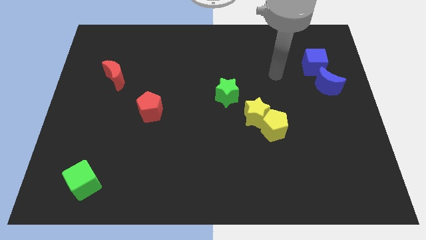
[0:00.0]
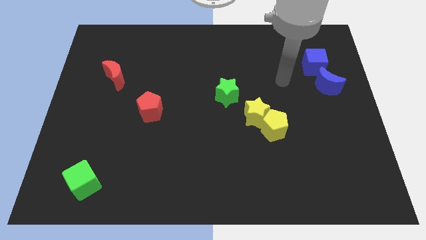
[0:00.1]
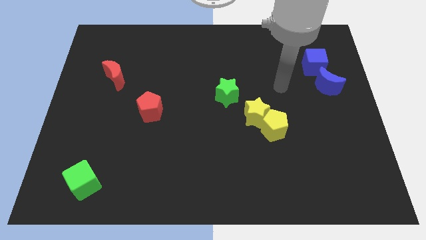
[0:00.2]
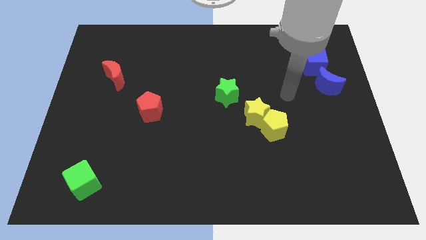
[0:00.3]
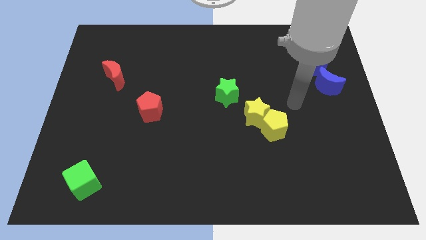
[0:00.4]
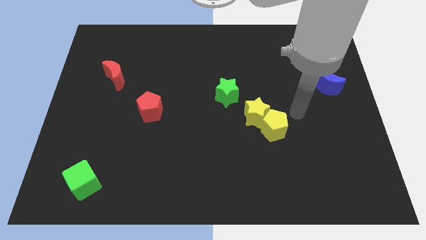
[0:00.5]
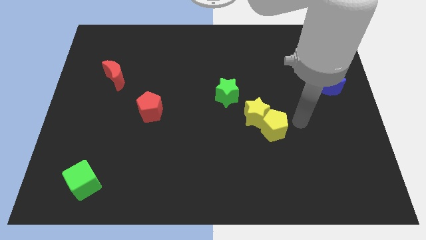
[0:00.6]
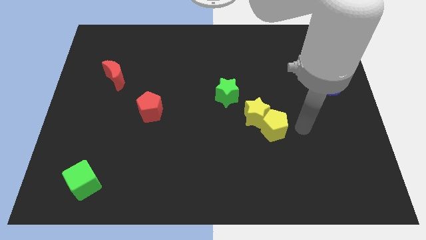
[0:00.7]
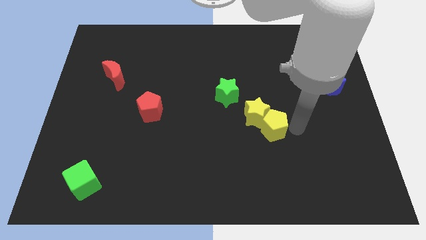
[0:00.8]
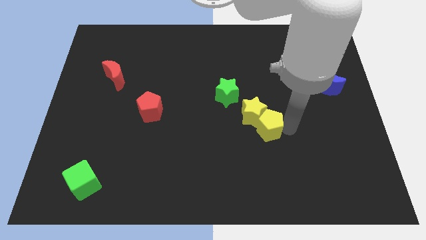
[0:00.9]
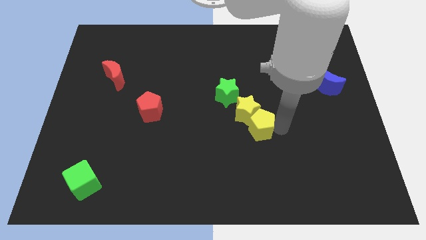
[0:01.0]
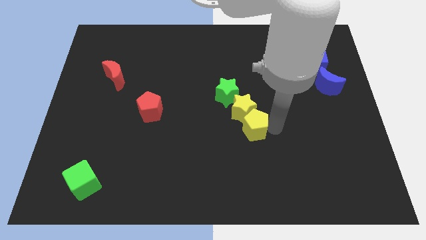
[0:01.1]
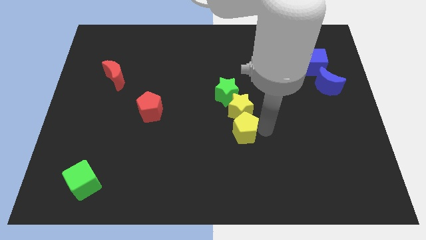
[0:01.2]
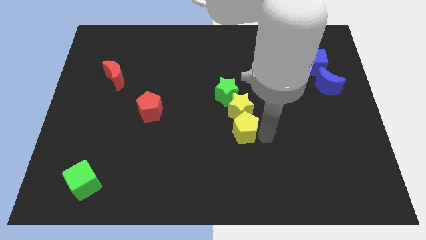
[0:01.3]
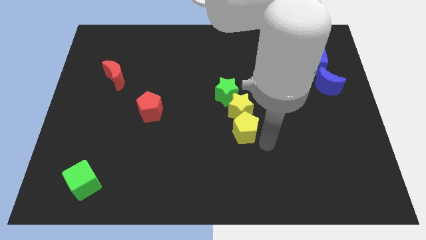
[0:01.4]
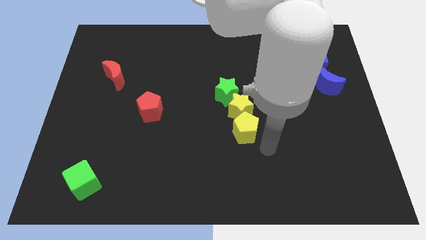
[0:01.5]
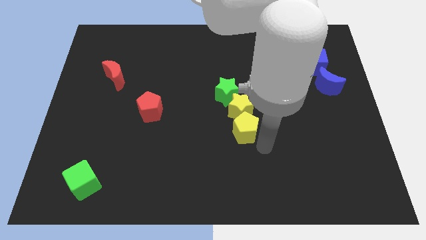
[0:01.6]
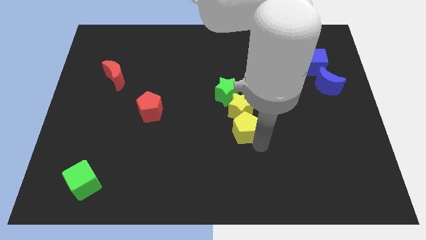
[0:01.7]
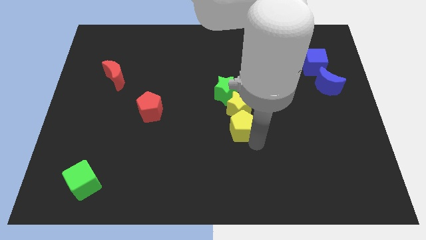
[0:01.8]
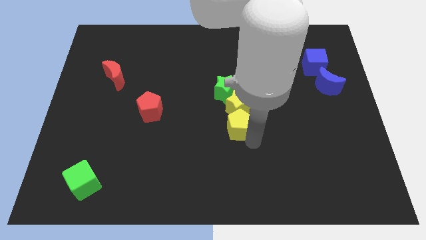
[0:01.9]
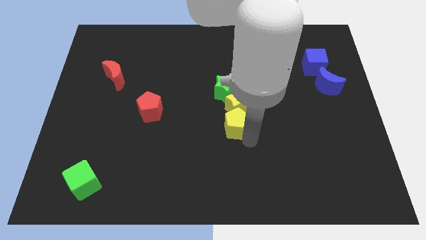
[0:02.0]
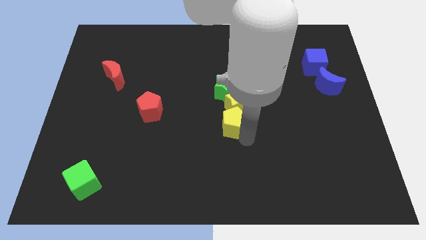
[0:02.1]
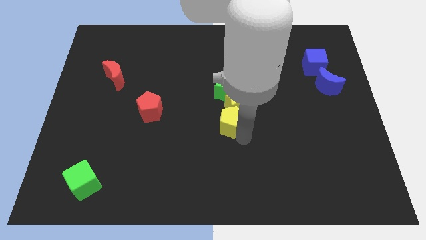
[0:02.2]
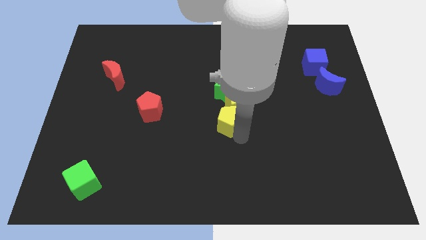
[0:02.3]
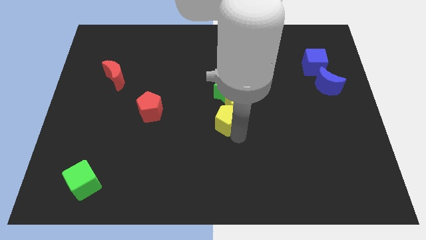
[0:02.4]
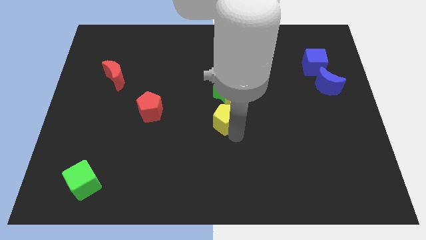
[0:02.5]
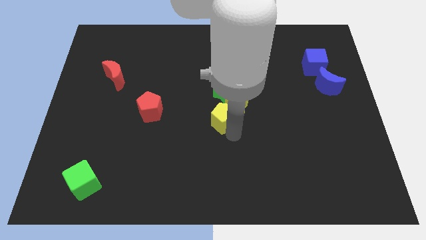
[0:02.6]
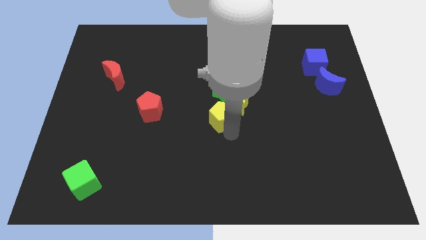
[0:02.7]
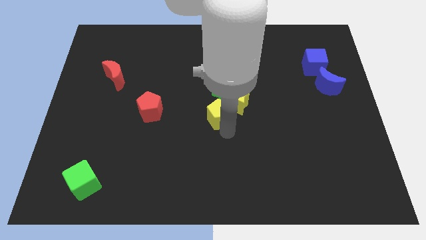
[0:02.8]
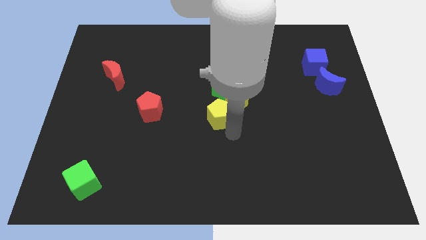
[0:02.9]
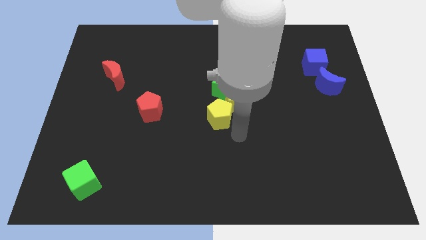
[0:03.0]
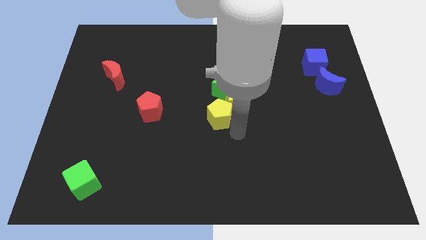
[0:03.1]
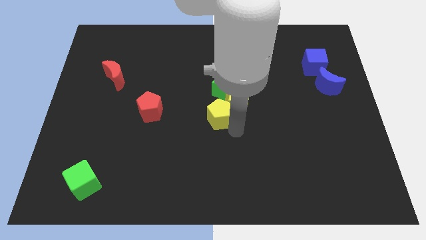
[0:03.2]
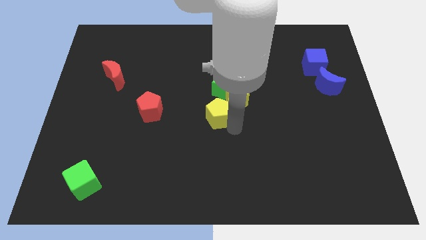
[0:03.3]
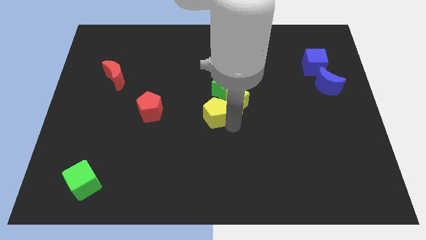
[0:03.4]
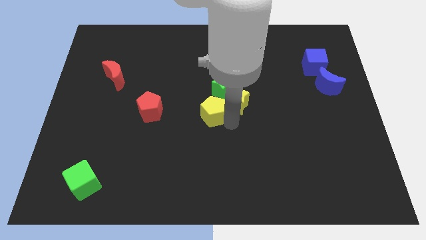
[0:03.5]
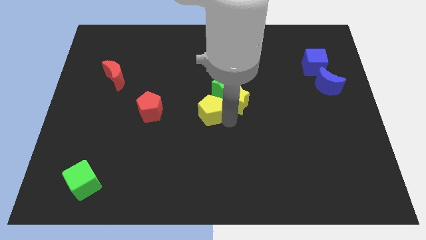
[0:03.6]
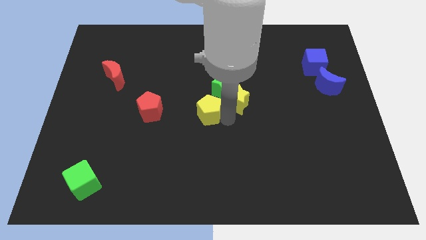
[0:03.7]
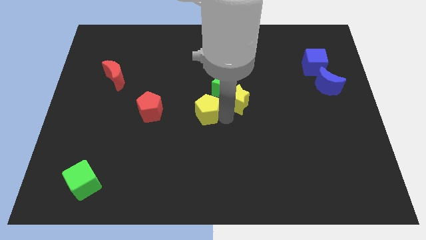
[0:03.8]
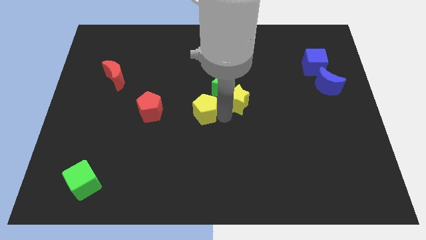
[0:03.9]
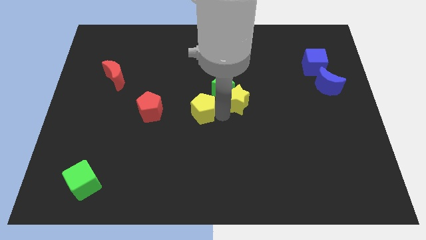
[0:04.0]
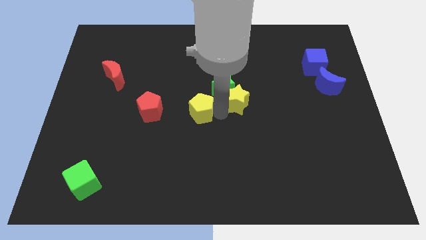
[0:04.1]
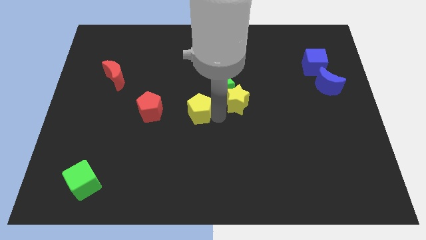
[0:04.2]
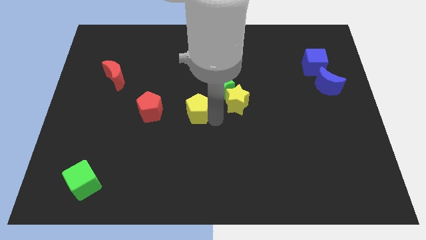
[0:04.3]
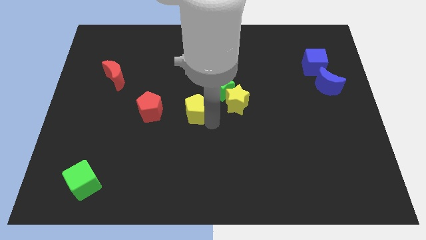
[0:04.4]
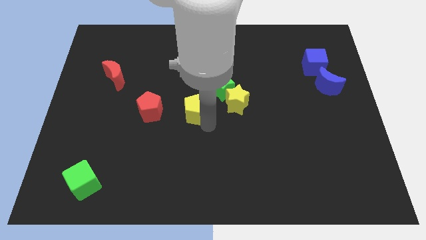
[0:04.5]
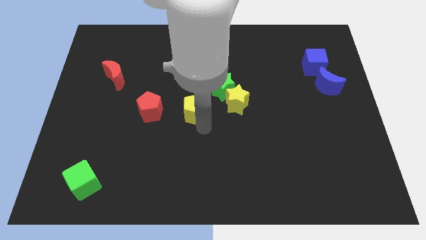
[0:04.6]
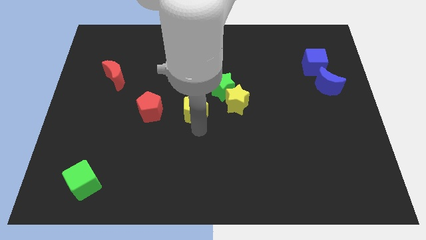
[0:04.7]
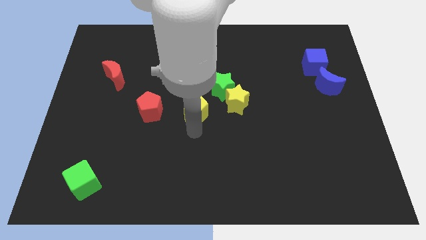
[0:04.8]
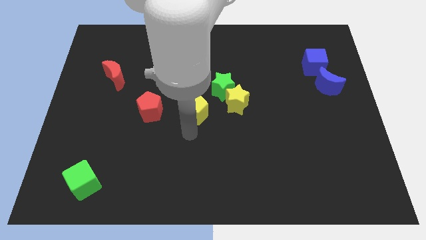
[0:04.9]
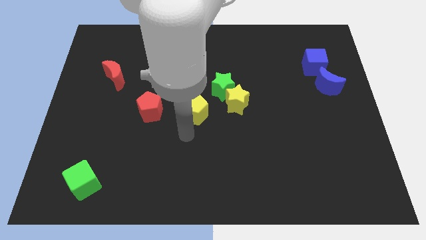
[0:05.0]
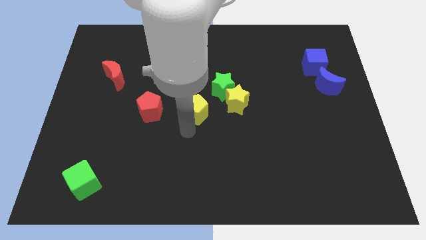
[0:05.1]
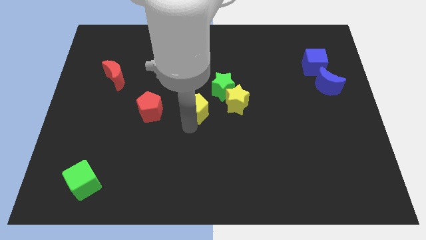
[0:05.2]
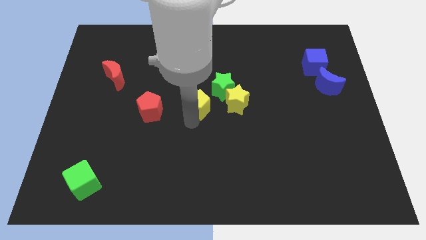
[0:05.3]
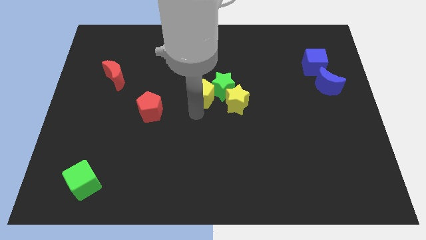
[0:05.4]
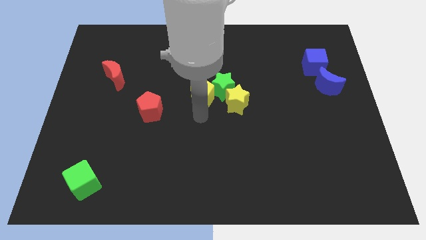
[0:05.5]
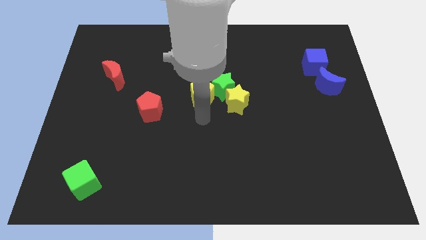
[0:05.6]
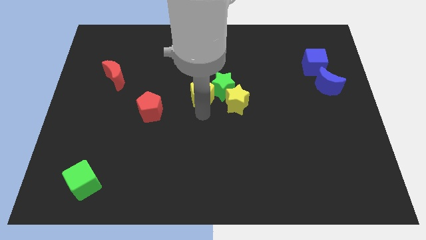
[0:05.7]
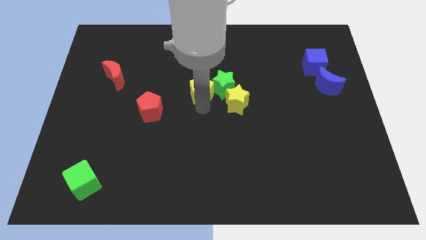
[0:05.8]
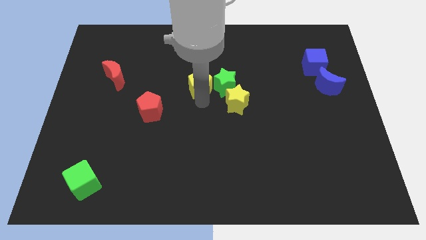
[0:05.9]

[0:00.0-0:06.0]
slide the yellow pentagon to the top left side of the green star

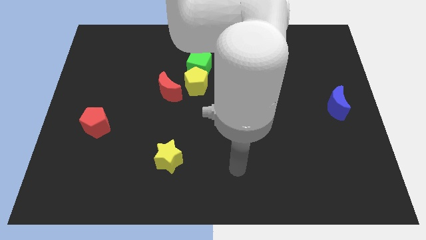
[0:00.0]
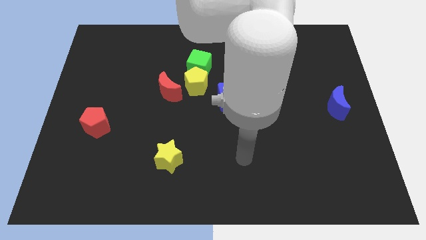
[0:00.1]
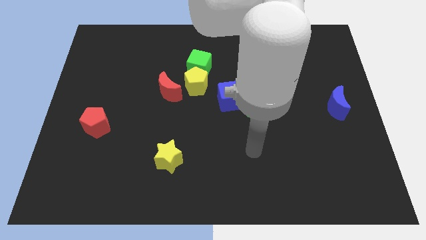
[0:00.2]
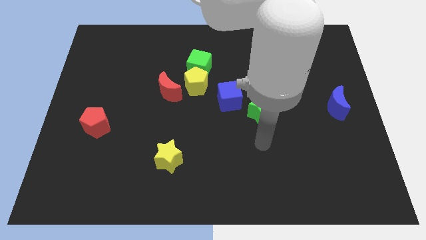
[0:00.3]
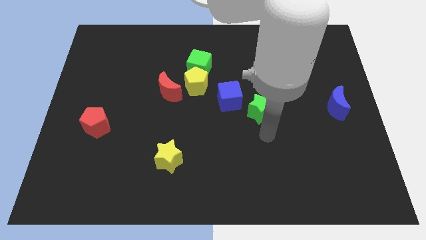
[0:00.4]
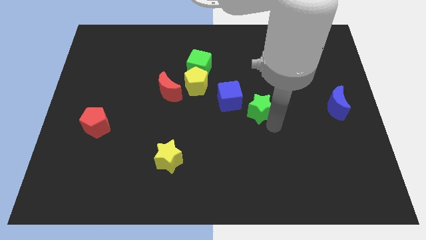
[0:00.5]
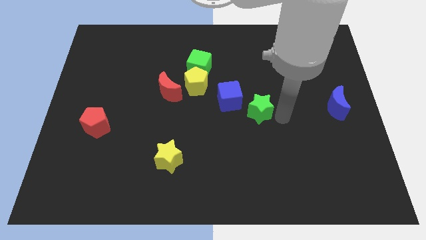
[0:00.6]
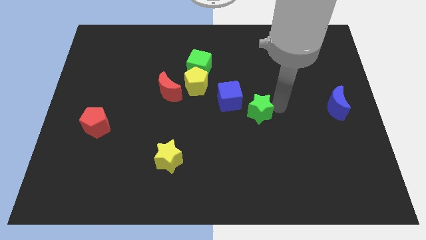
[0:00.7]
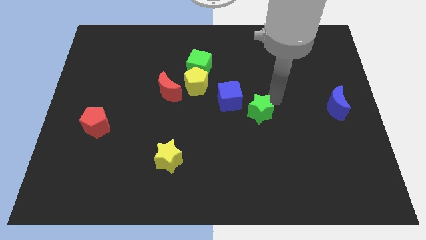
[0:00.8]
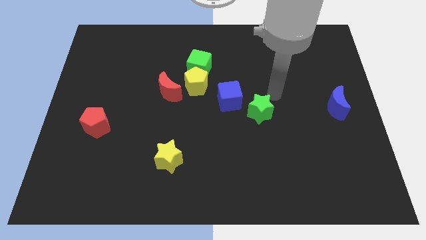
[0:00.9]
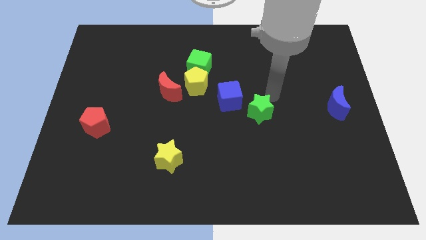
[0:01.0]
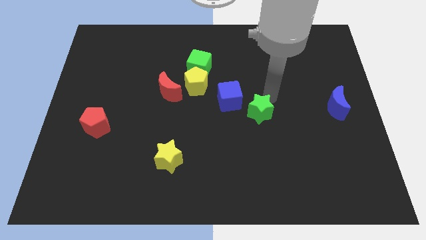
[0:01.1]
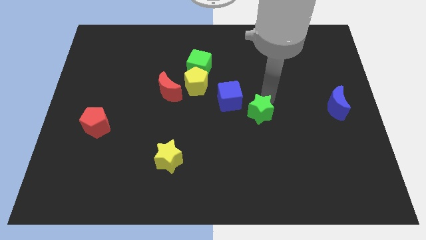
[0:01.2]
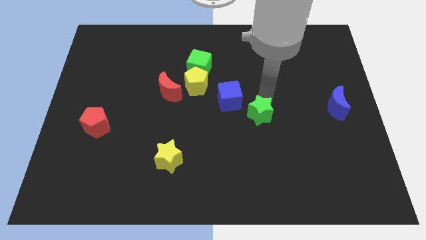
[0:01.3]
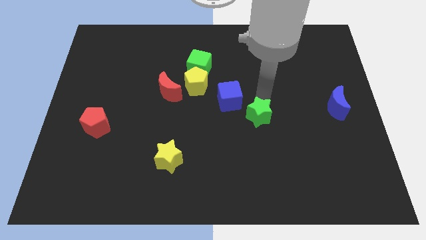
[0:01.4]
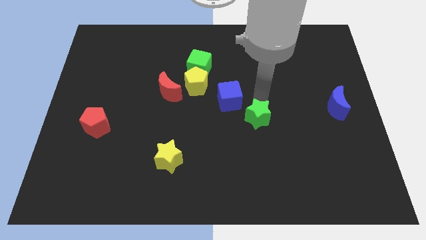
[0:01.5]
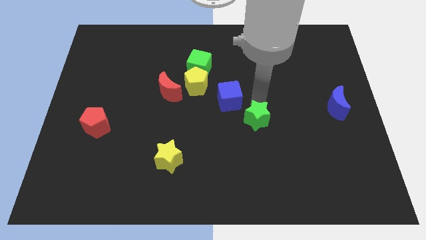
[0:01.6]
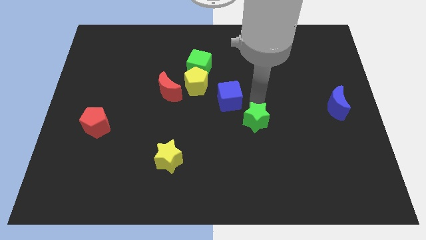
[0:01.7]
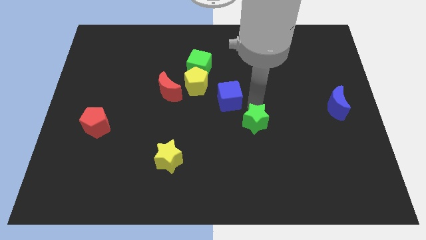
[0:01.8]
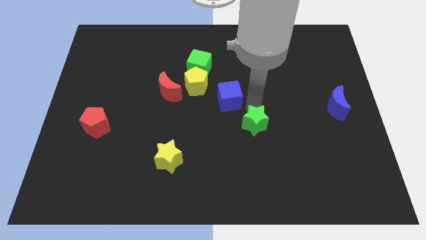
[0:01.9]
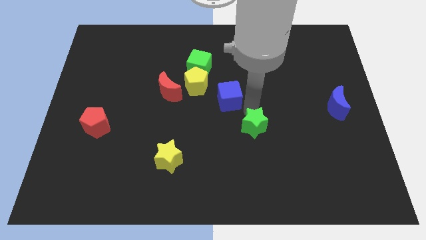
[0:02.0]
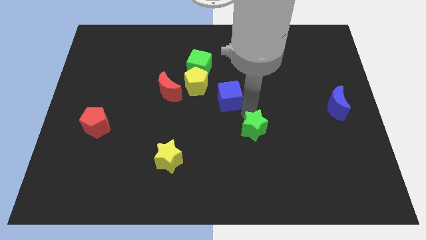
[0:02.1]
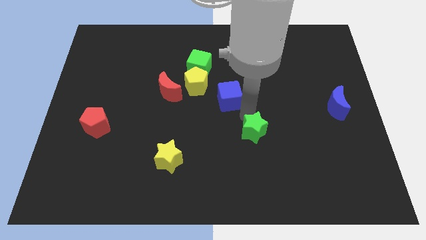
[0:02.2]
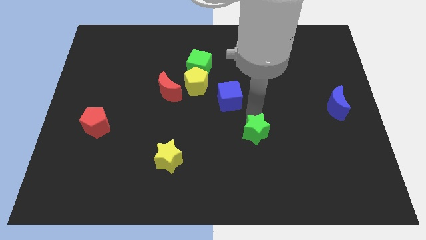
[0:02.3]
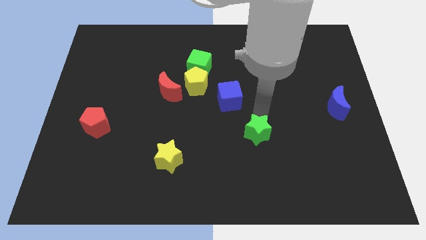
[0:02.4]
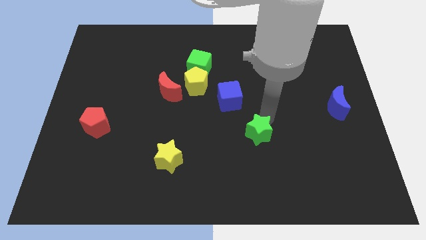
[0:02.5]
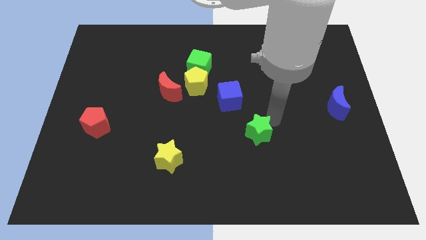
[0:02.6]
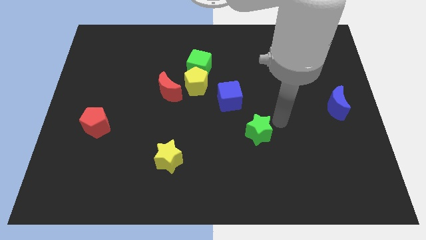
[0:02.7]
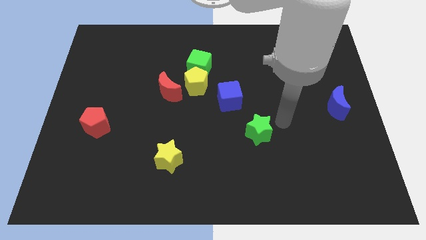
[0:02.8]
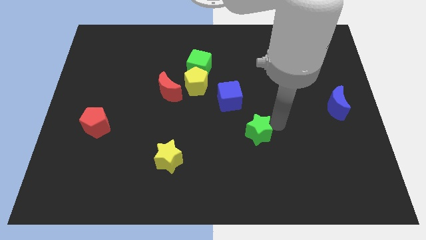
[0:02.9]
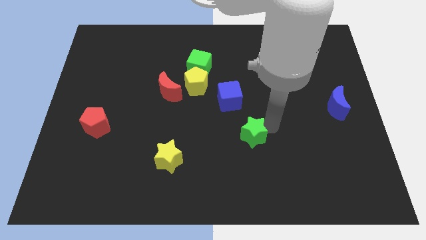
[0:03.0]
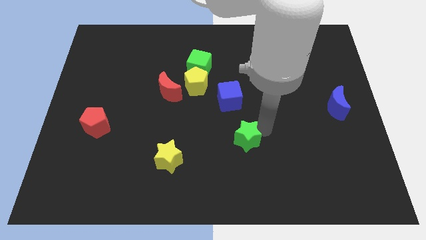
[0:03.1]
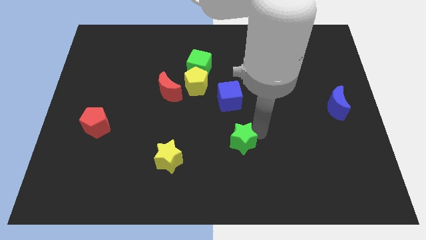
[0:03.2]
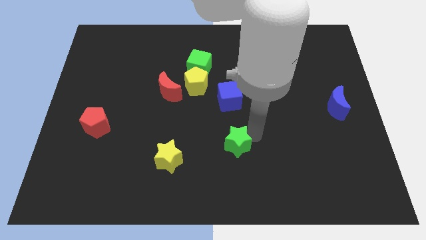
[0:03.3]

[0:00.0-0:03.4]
push the green star to the right of the yellow star
